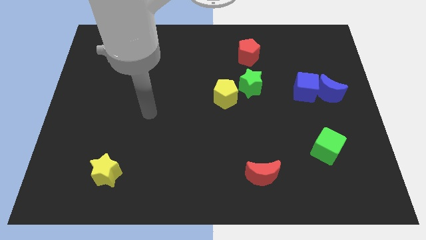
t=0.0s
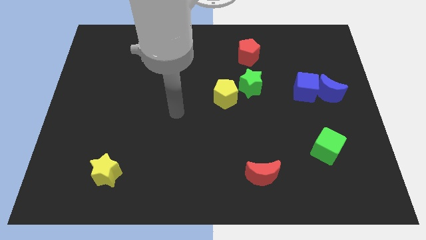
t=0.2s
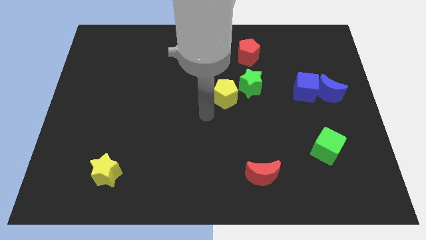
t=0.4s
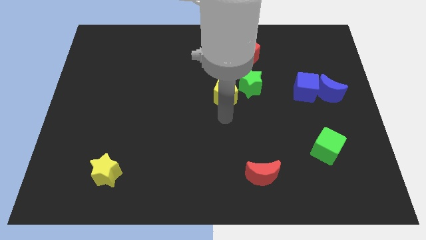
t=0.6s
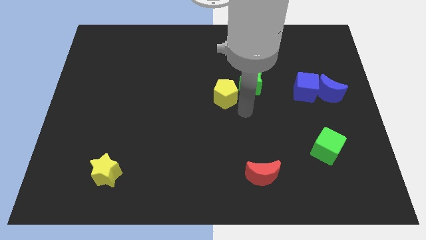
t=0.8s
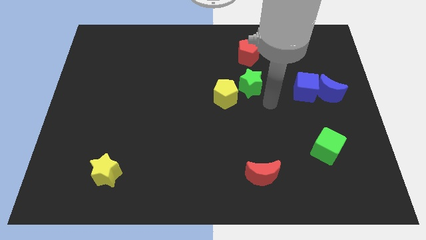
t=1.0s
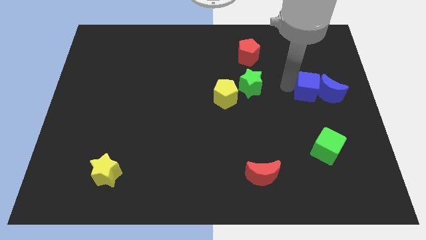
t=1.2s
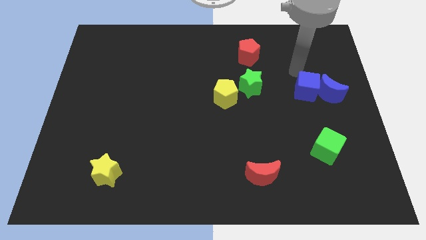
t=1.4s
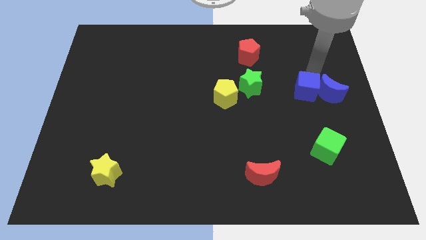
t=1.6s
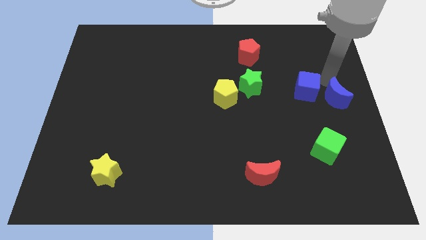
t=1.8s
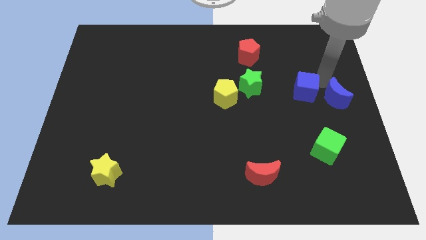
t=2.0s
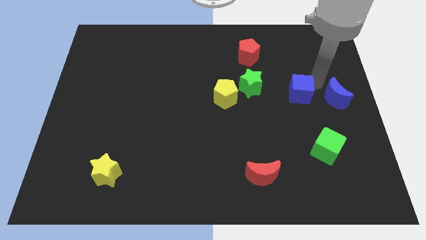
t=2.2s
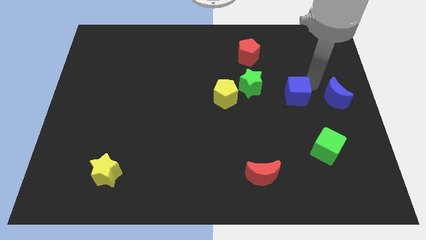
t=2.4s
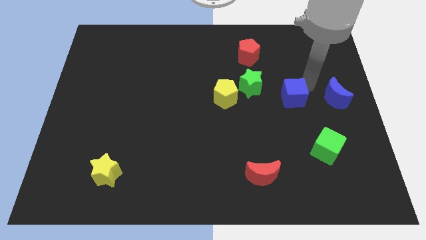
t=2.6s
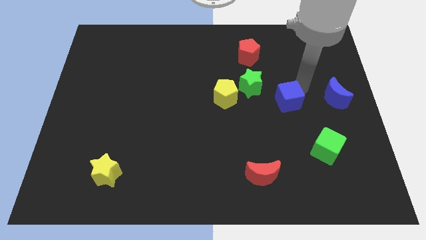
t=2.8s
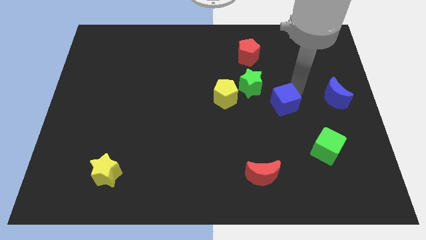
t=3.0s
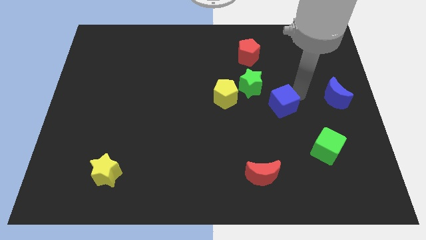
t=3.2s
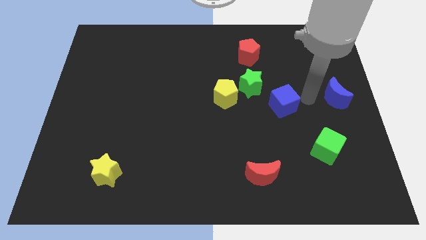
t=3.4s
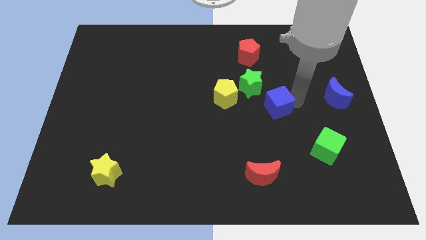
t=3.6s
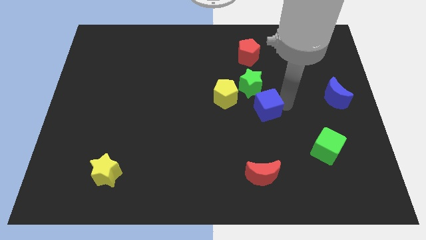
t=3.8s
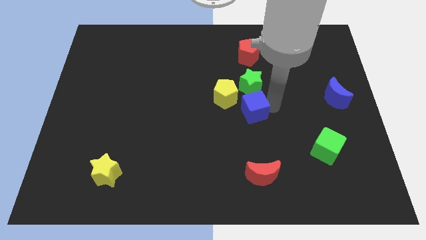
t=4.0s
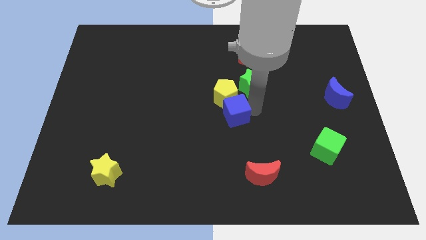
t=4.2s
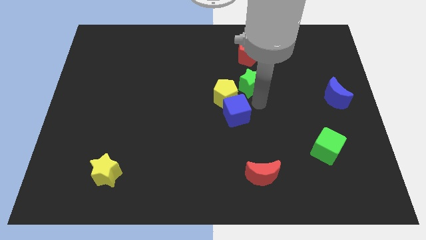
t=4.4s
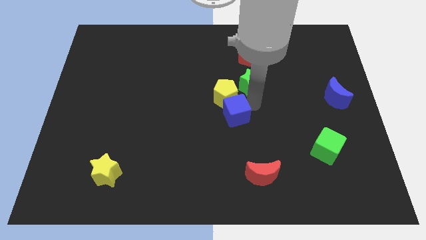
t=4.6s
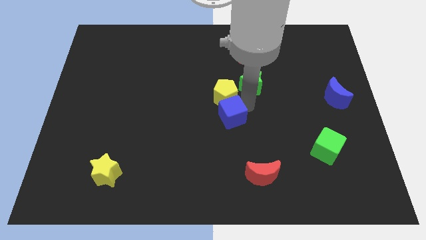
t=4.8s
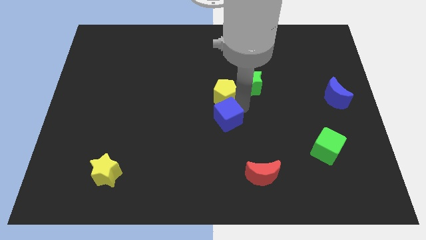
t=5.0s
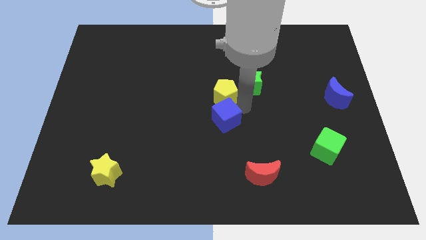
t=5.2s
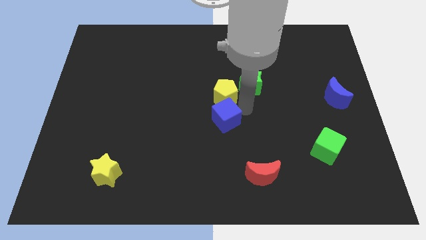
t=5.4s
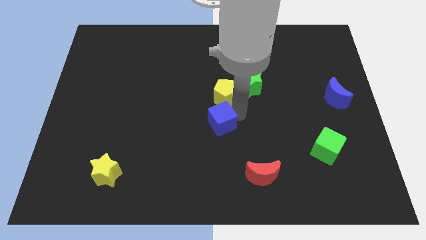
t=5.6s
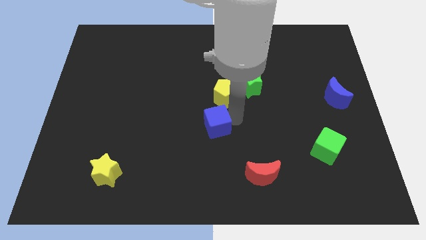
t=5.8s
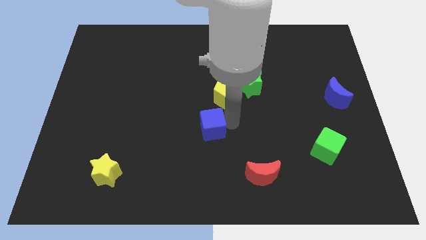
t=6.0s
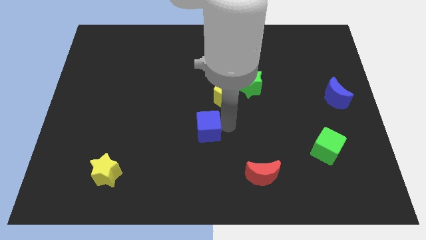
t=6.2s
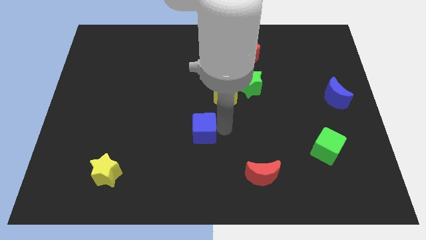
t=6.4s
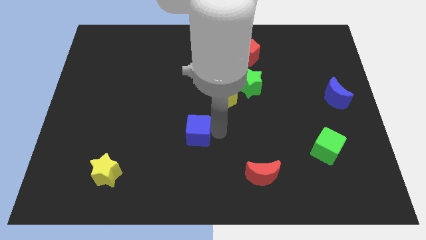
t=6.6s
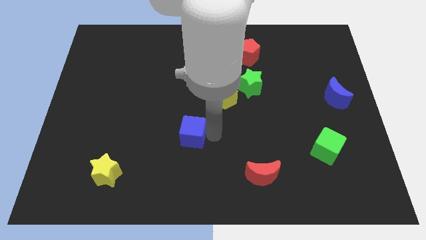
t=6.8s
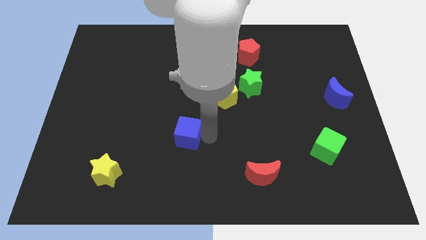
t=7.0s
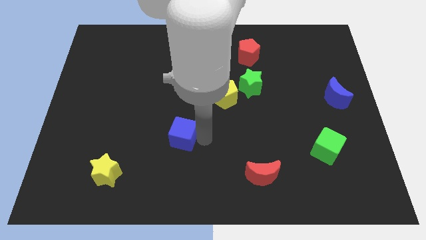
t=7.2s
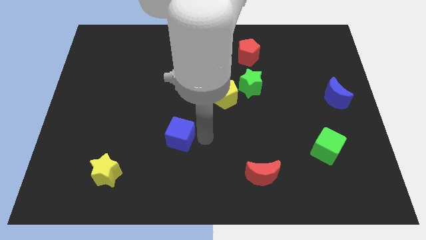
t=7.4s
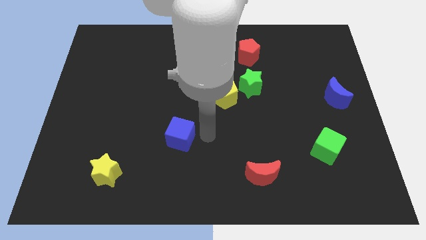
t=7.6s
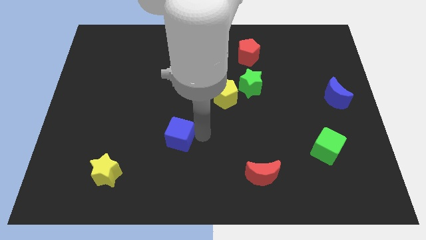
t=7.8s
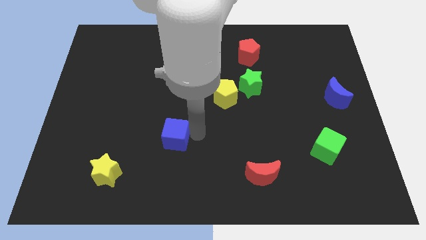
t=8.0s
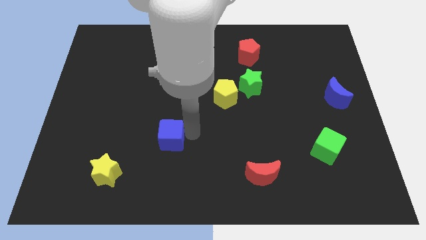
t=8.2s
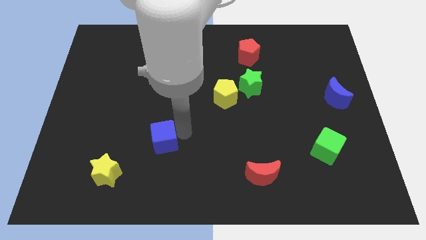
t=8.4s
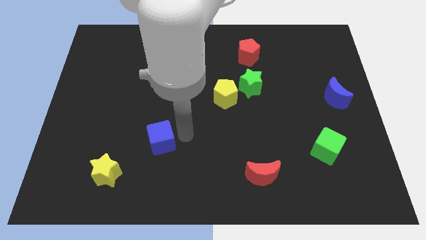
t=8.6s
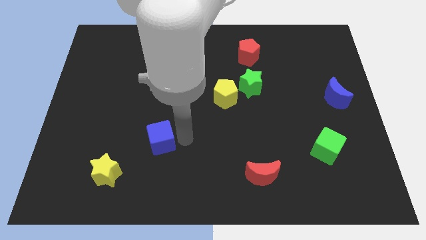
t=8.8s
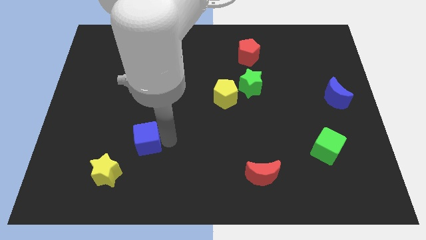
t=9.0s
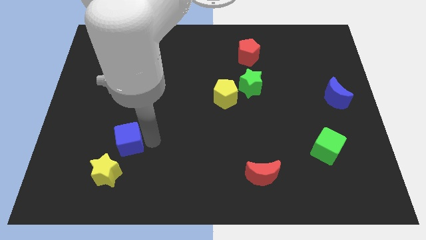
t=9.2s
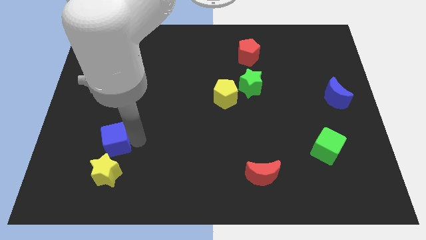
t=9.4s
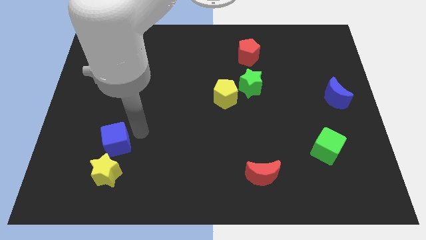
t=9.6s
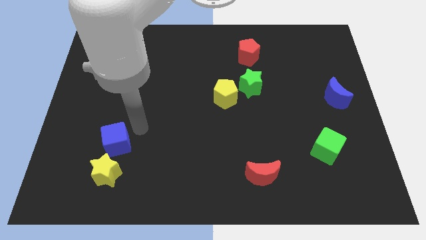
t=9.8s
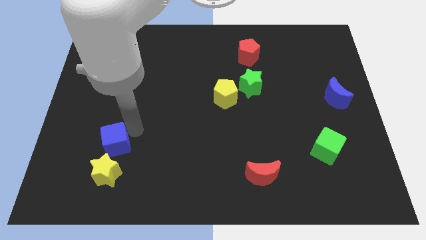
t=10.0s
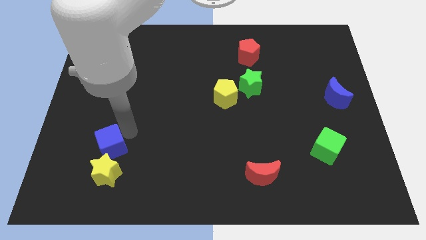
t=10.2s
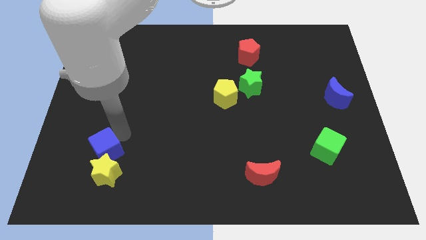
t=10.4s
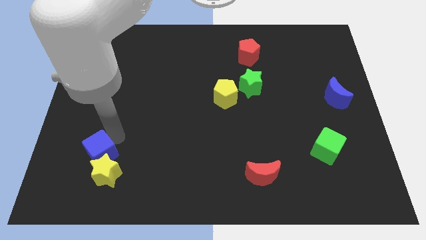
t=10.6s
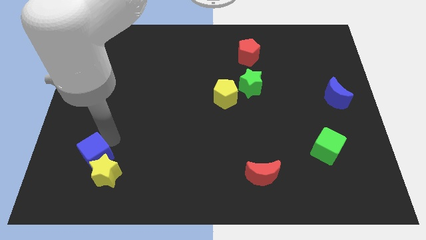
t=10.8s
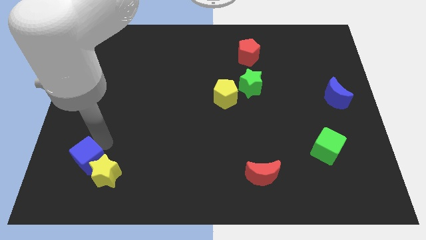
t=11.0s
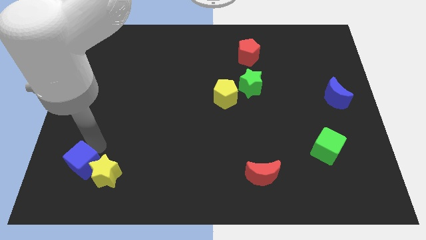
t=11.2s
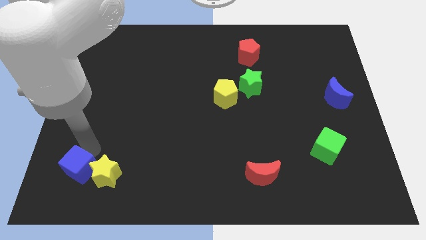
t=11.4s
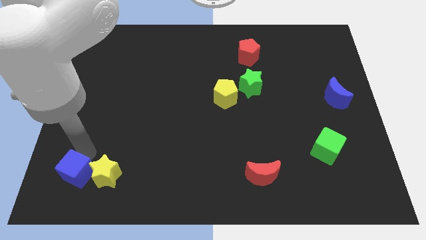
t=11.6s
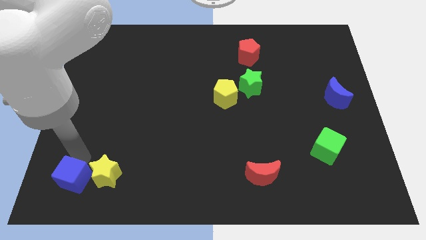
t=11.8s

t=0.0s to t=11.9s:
move the blue cube to the lower left corner
